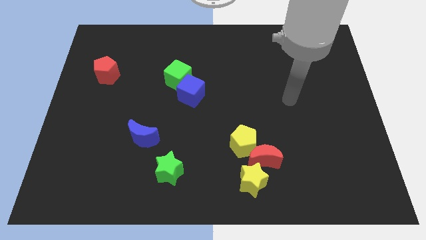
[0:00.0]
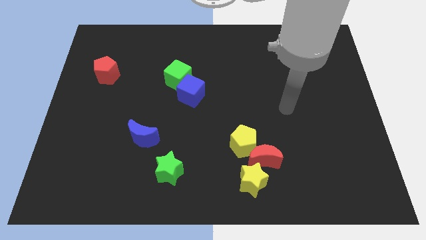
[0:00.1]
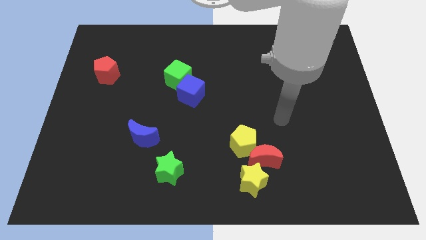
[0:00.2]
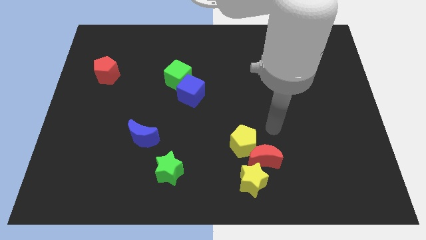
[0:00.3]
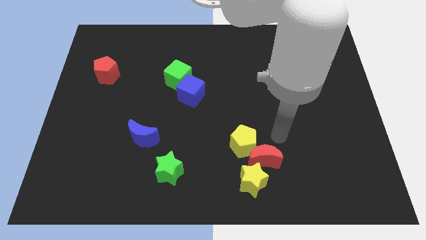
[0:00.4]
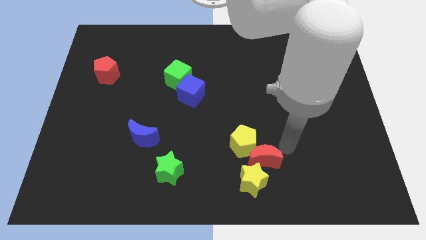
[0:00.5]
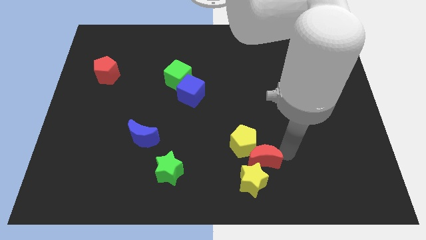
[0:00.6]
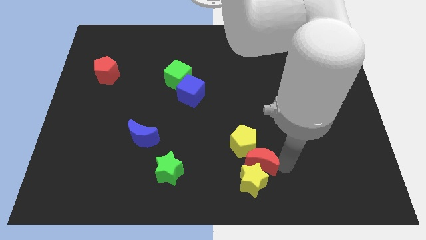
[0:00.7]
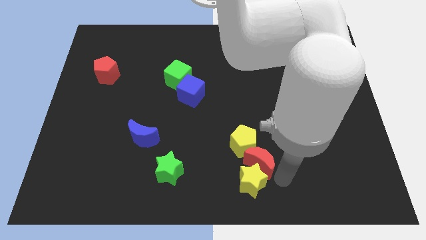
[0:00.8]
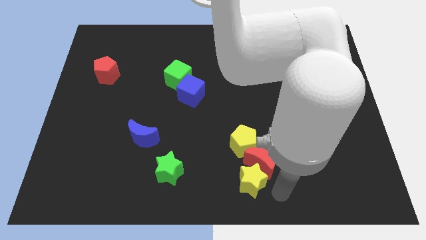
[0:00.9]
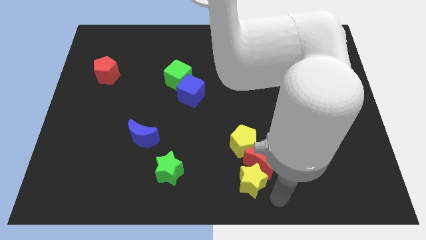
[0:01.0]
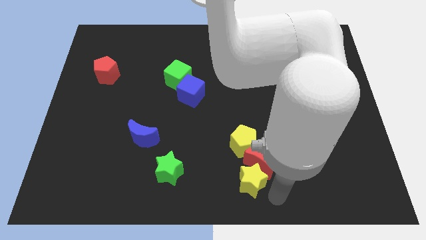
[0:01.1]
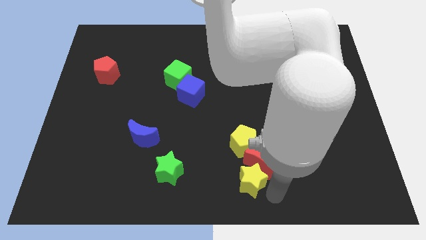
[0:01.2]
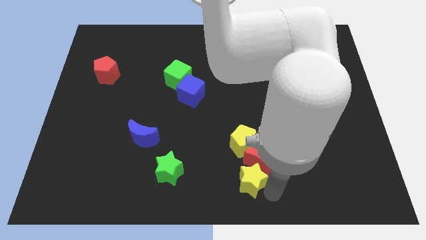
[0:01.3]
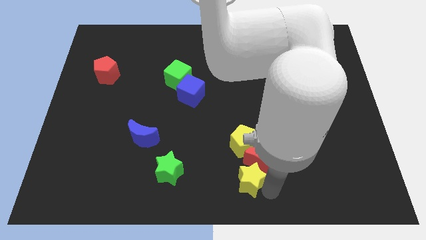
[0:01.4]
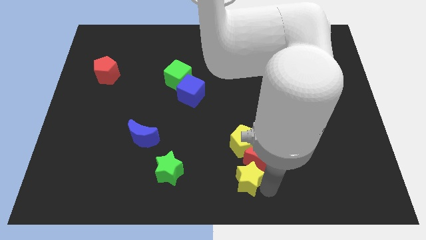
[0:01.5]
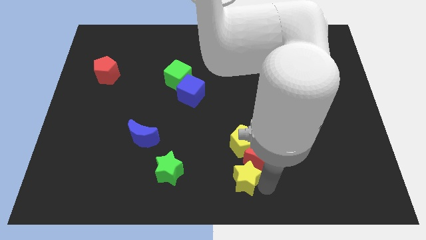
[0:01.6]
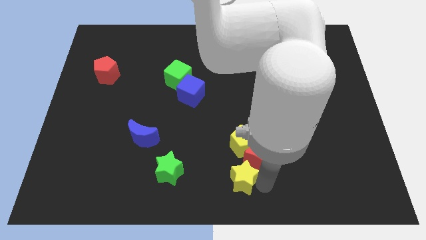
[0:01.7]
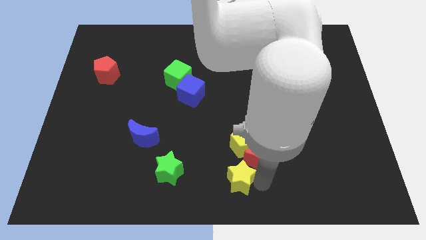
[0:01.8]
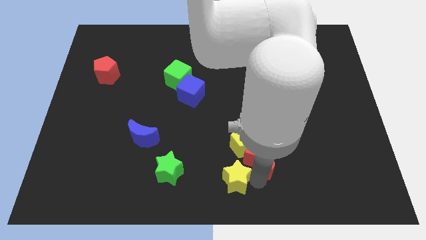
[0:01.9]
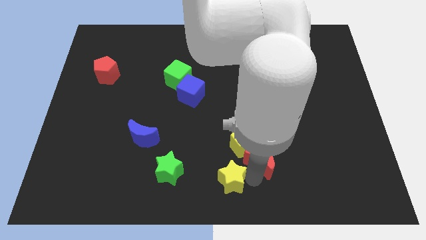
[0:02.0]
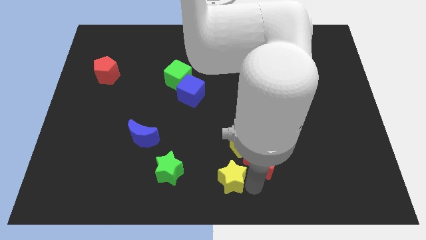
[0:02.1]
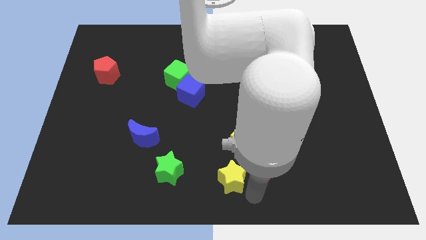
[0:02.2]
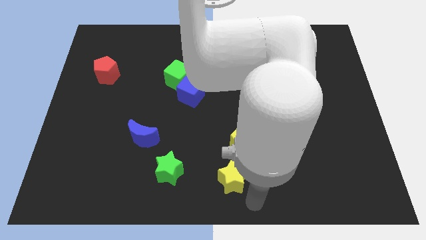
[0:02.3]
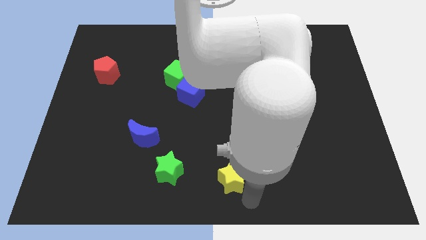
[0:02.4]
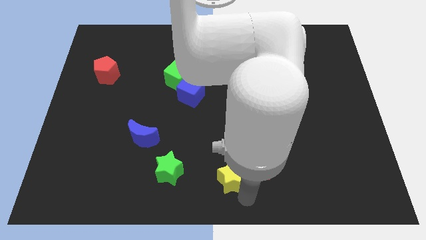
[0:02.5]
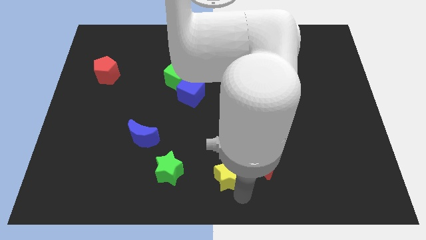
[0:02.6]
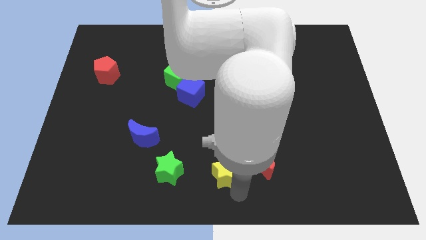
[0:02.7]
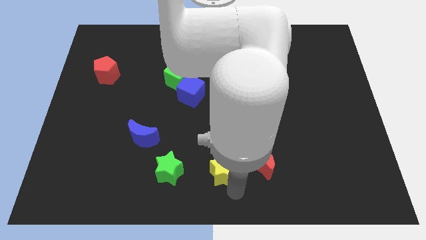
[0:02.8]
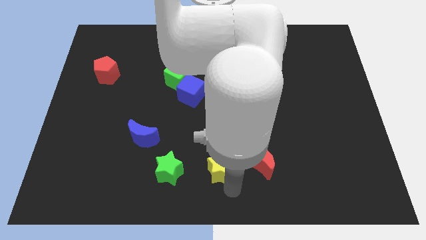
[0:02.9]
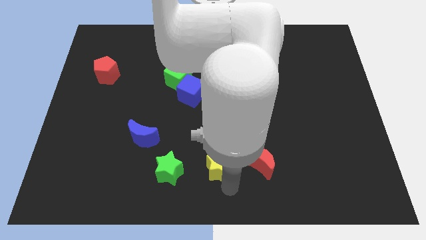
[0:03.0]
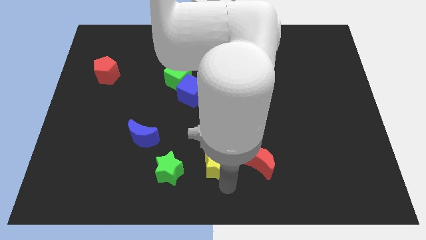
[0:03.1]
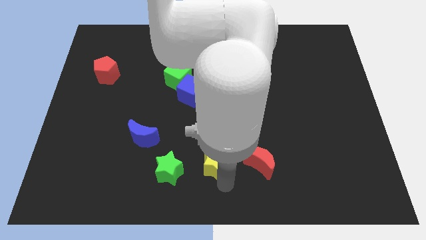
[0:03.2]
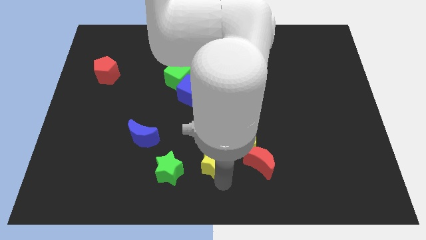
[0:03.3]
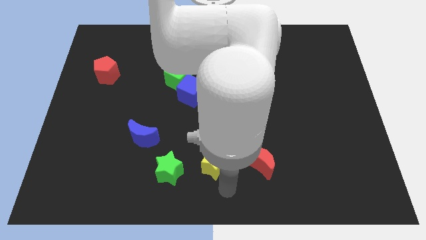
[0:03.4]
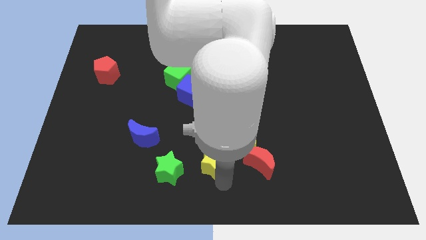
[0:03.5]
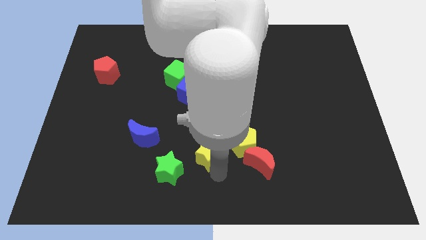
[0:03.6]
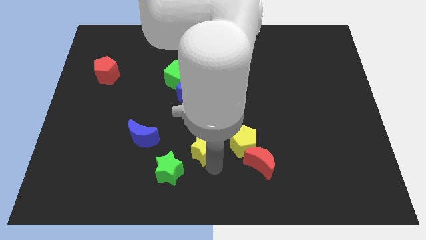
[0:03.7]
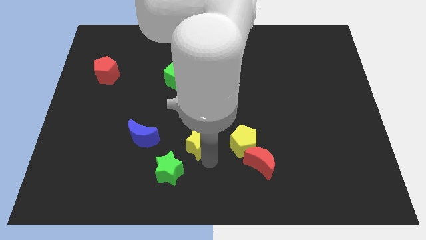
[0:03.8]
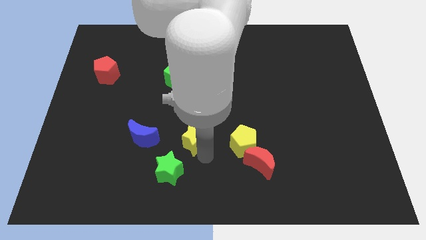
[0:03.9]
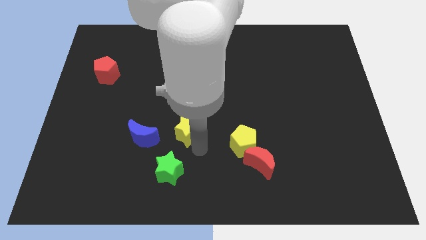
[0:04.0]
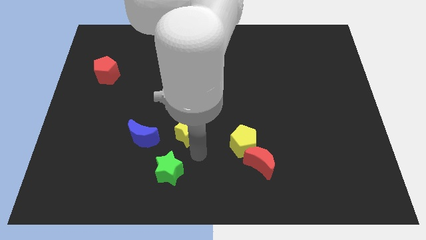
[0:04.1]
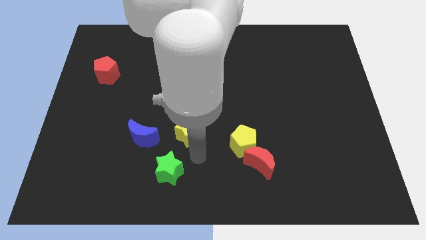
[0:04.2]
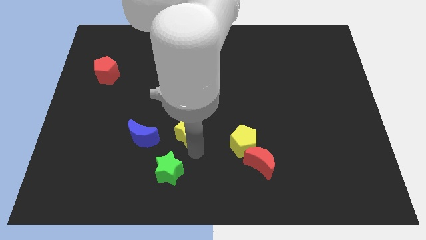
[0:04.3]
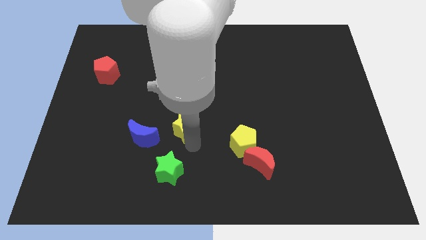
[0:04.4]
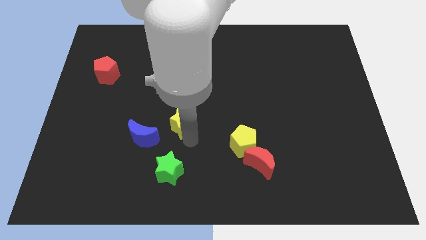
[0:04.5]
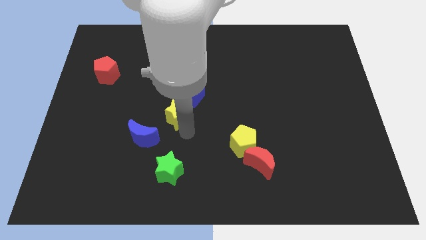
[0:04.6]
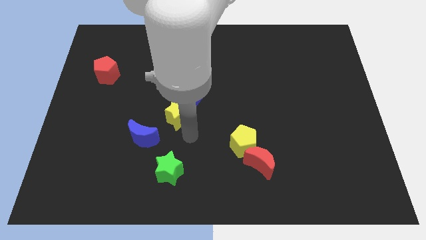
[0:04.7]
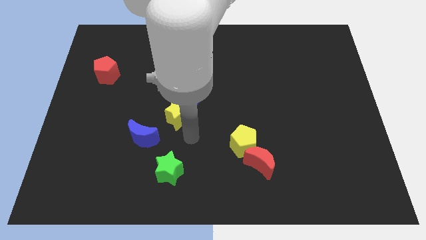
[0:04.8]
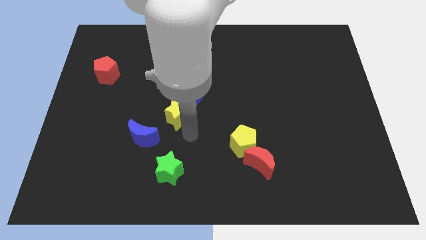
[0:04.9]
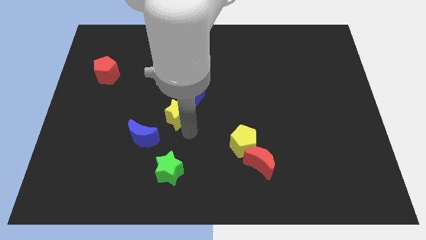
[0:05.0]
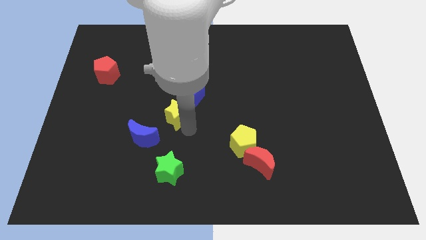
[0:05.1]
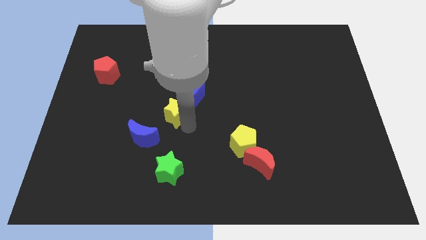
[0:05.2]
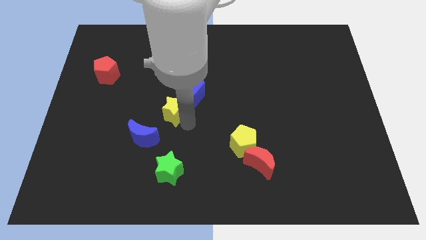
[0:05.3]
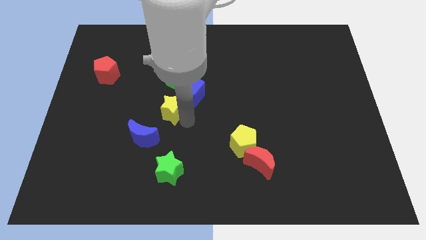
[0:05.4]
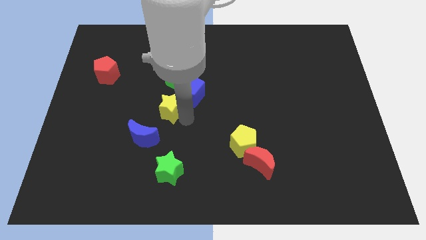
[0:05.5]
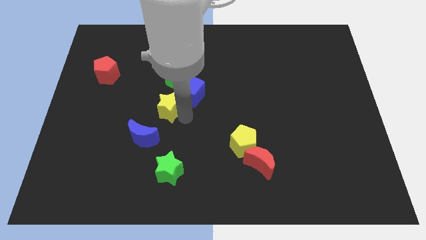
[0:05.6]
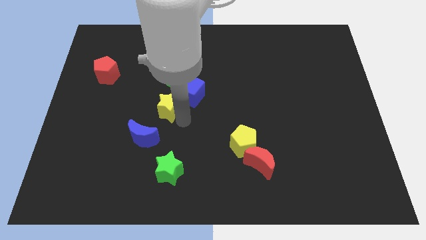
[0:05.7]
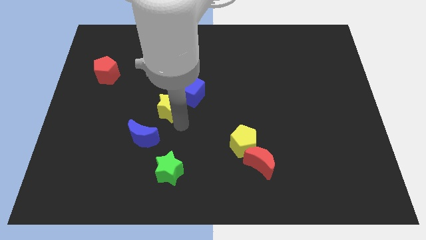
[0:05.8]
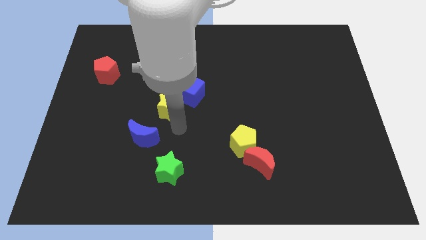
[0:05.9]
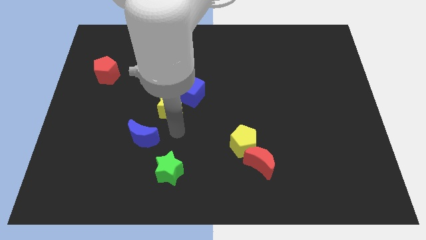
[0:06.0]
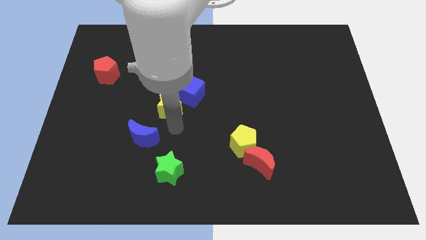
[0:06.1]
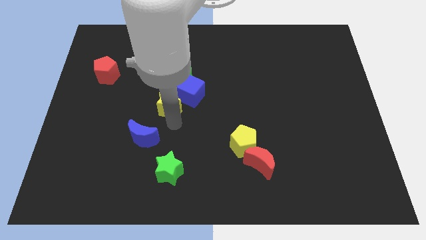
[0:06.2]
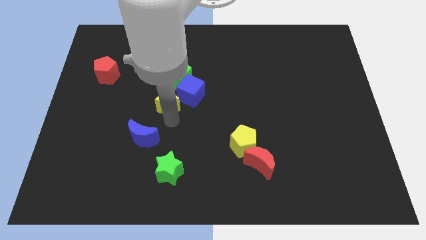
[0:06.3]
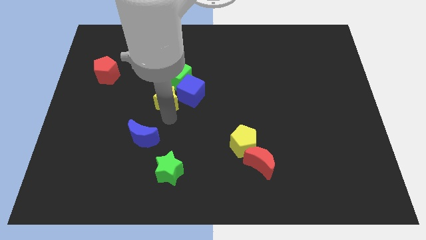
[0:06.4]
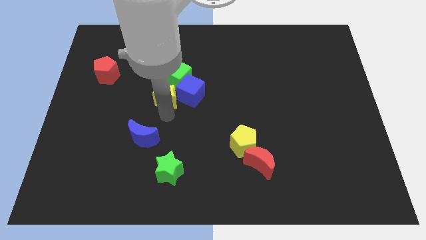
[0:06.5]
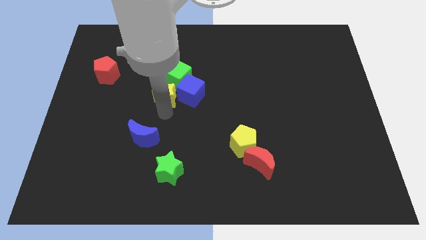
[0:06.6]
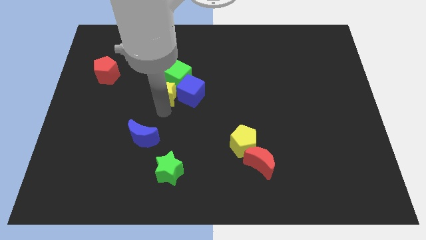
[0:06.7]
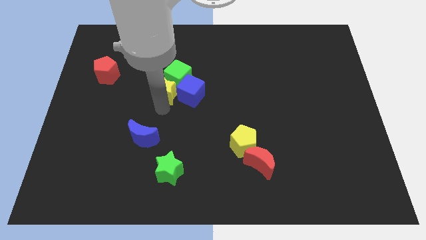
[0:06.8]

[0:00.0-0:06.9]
put the yellow star close to the green cube

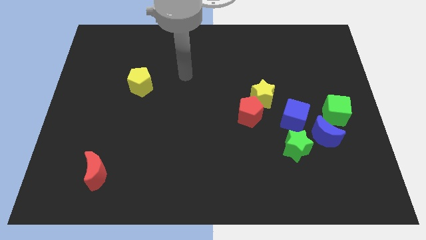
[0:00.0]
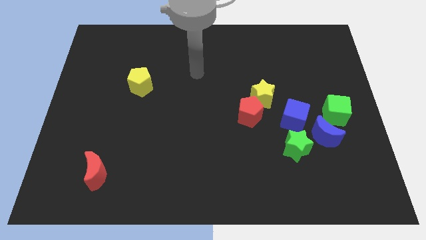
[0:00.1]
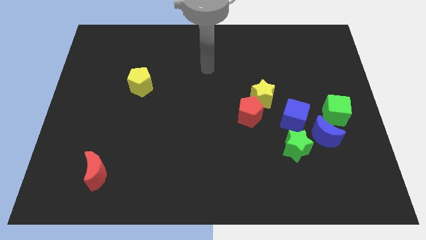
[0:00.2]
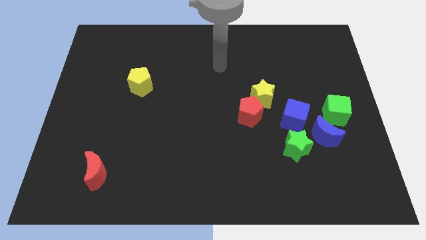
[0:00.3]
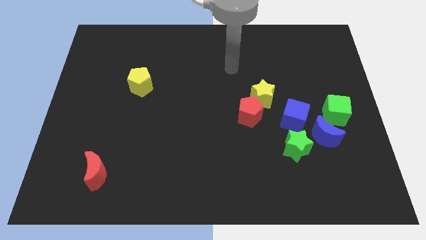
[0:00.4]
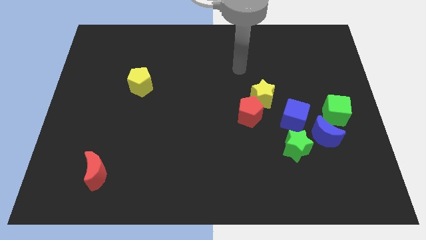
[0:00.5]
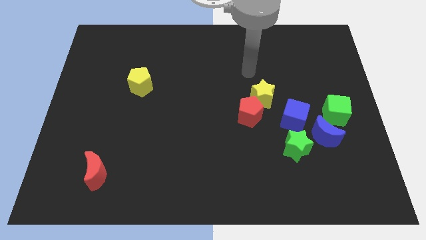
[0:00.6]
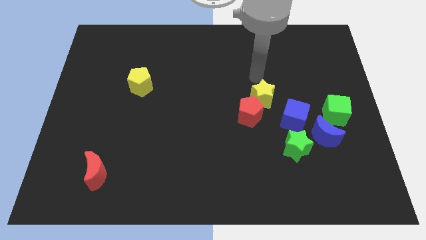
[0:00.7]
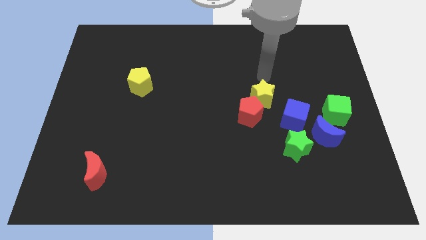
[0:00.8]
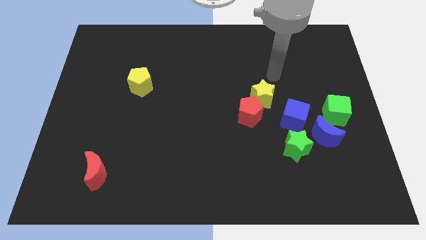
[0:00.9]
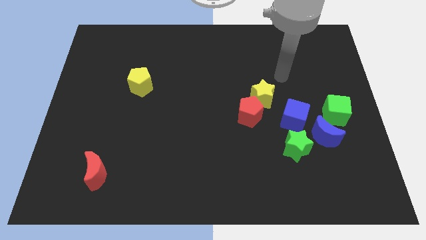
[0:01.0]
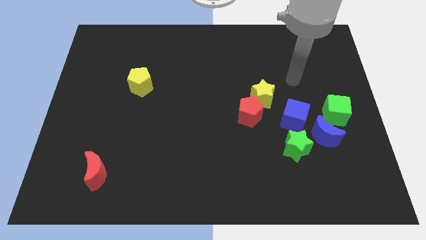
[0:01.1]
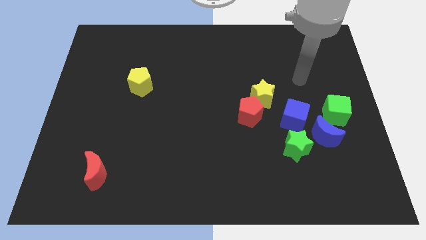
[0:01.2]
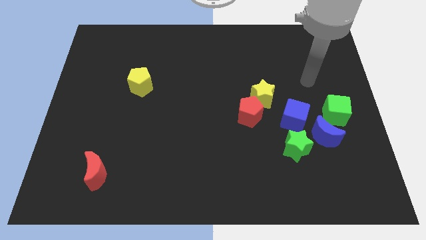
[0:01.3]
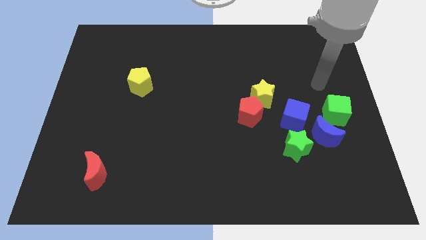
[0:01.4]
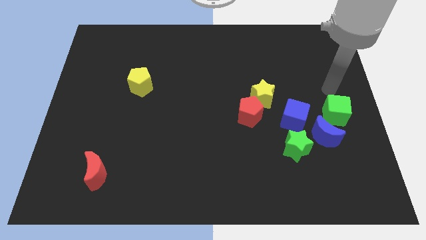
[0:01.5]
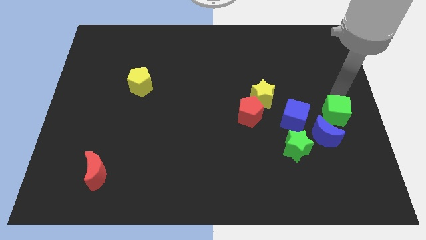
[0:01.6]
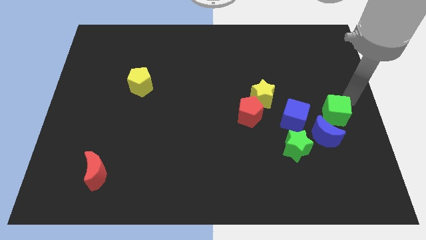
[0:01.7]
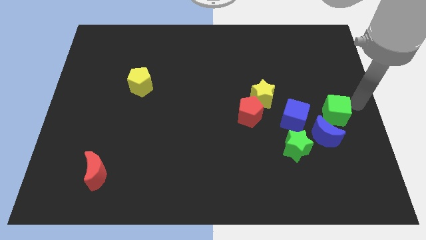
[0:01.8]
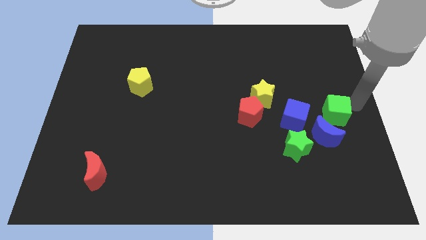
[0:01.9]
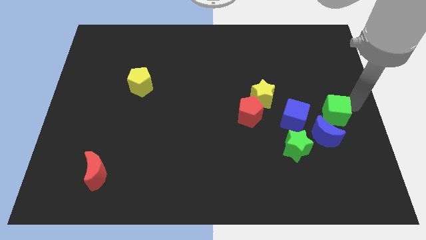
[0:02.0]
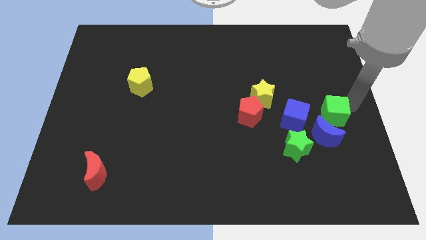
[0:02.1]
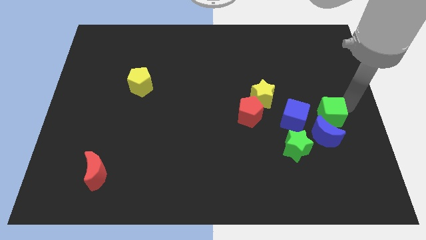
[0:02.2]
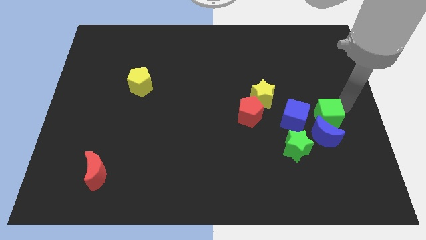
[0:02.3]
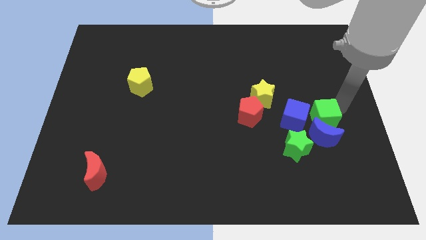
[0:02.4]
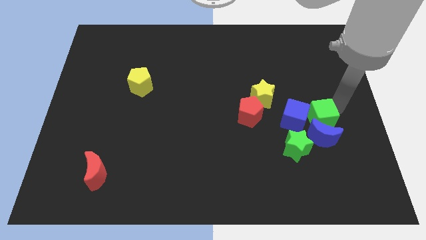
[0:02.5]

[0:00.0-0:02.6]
slide the green cube to the blue cube
